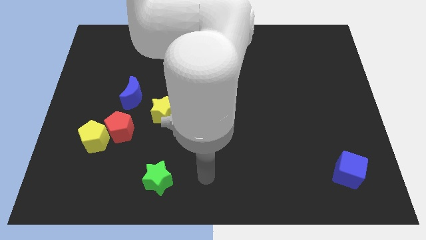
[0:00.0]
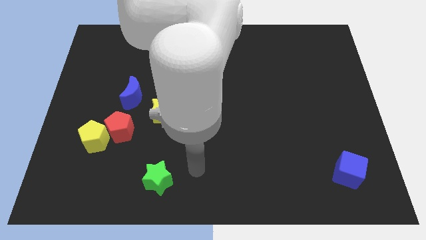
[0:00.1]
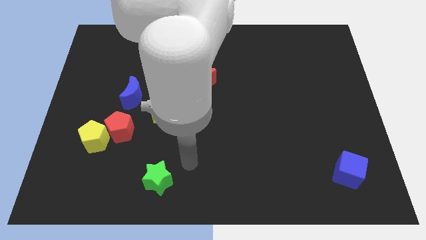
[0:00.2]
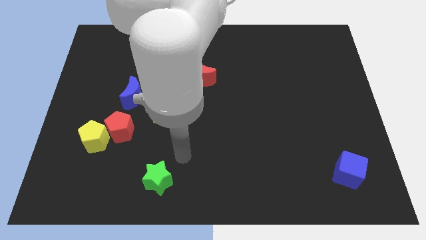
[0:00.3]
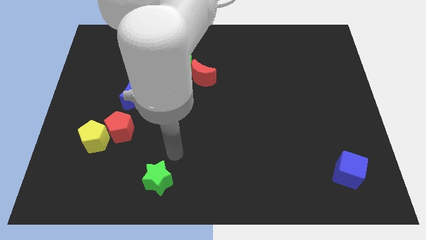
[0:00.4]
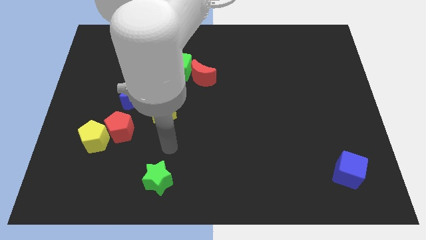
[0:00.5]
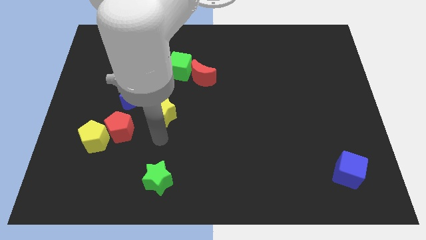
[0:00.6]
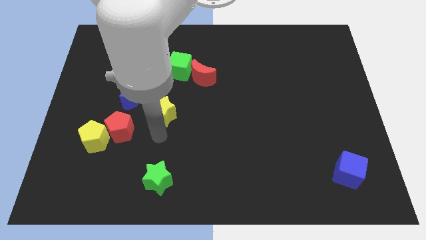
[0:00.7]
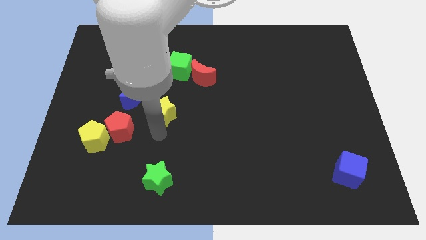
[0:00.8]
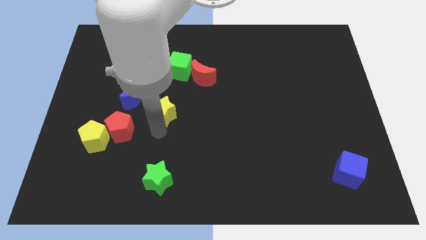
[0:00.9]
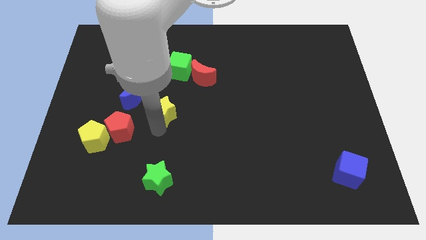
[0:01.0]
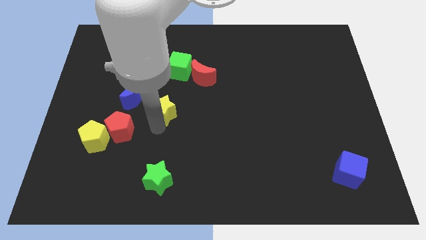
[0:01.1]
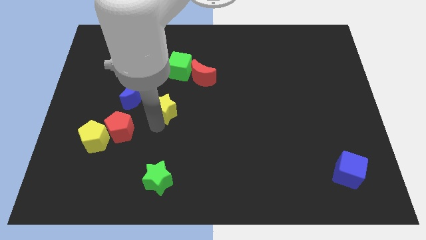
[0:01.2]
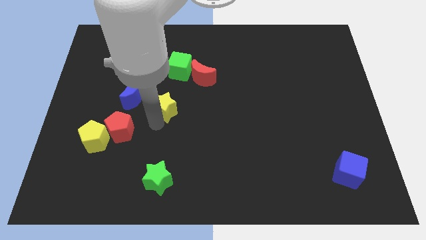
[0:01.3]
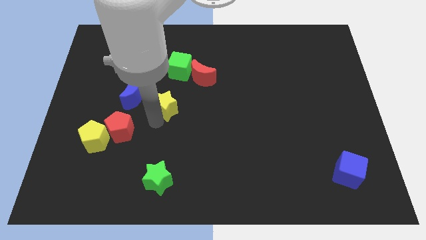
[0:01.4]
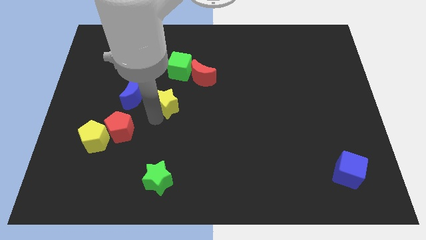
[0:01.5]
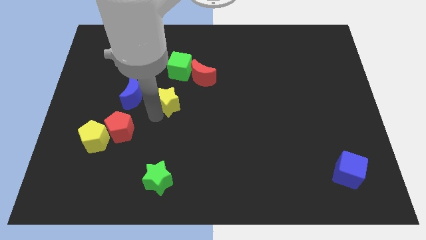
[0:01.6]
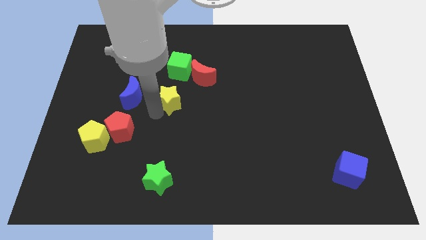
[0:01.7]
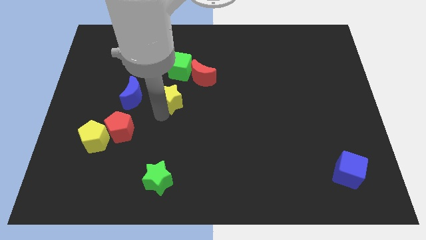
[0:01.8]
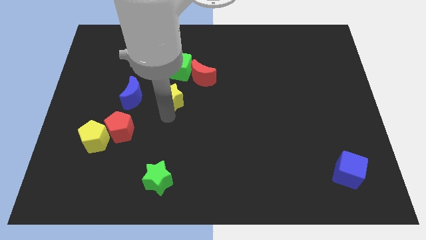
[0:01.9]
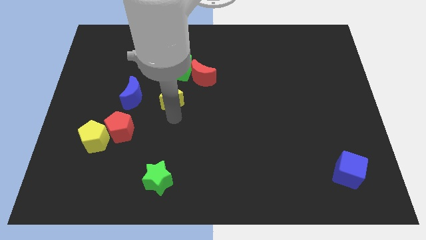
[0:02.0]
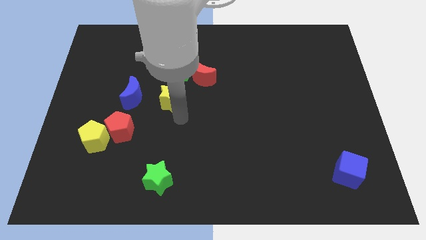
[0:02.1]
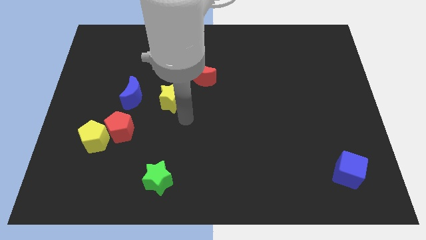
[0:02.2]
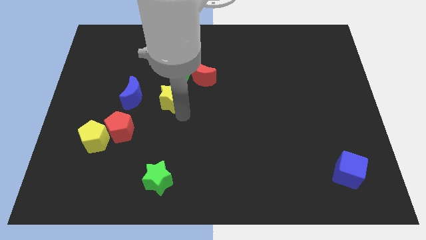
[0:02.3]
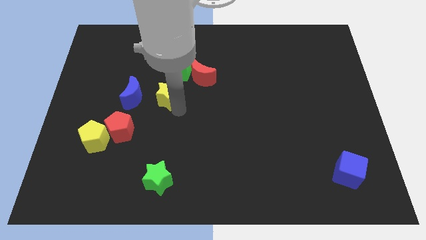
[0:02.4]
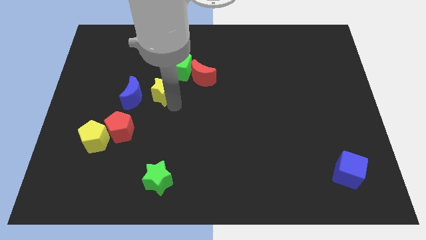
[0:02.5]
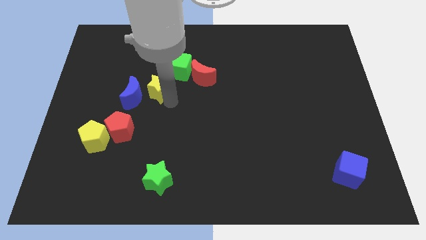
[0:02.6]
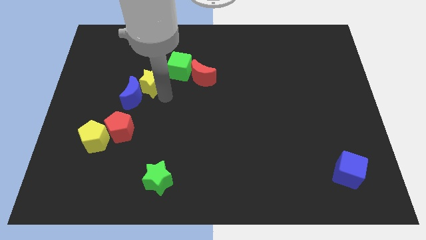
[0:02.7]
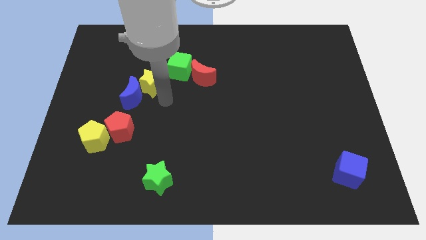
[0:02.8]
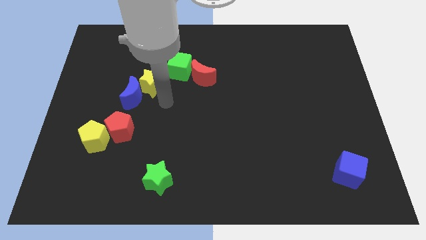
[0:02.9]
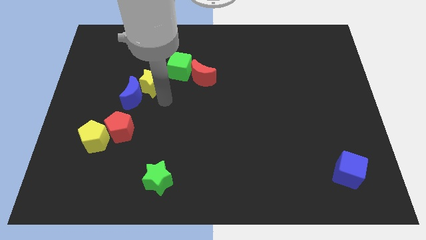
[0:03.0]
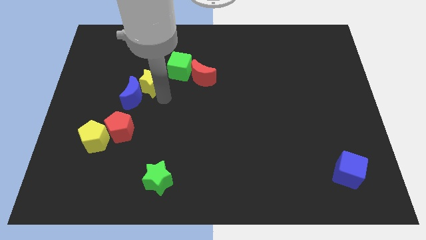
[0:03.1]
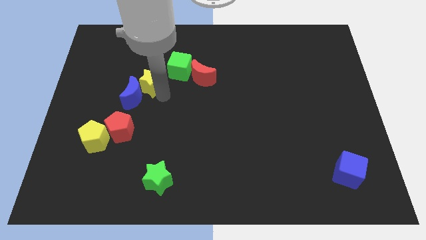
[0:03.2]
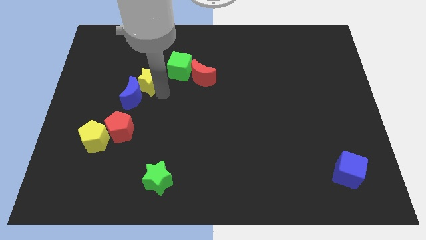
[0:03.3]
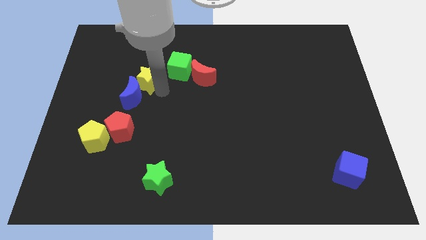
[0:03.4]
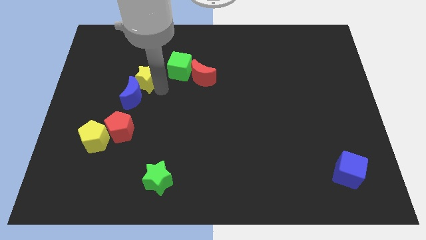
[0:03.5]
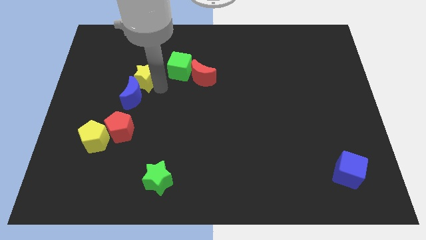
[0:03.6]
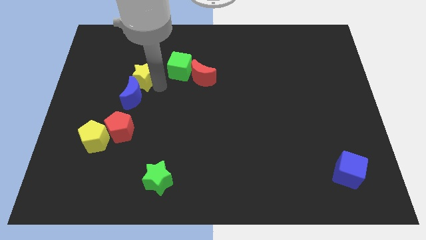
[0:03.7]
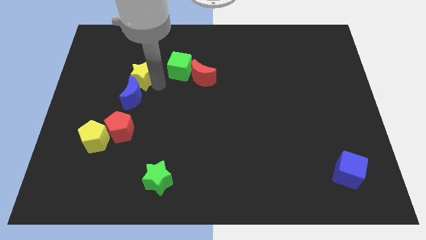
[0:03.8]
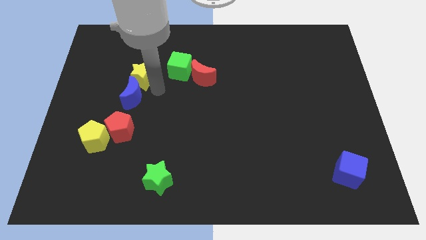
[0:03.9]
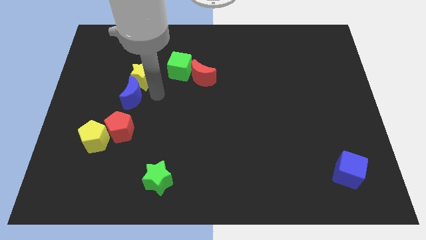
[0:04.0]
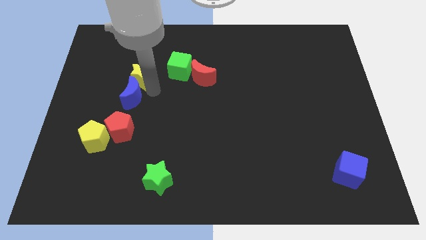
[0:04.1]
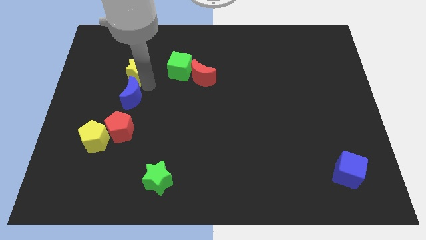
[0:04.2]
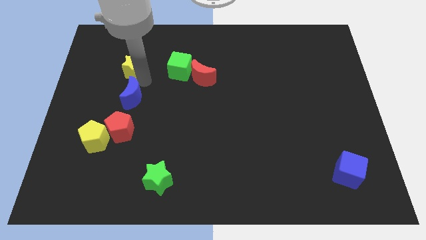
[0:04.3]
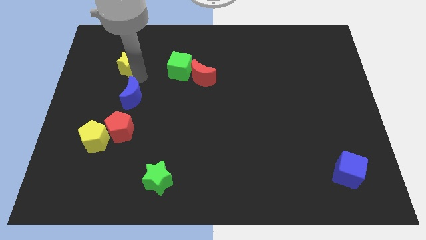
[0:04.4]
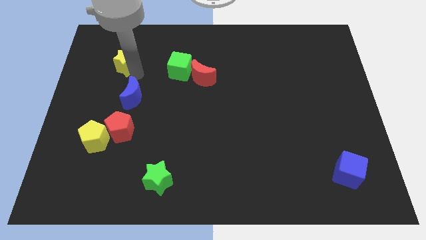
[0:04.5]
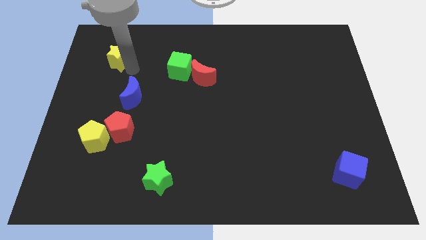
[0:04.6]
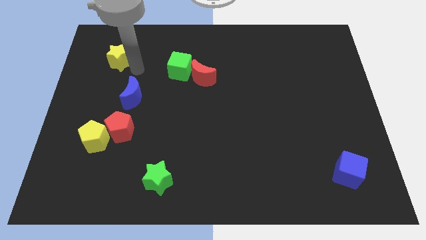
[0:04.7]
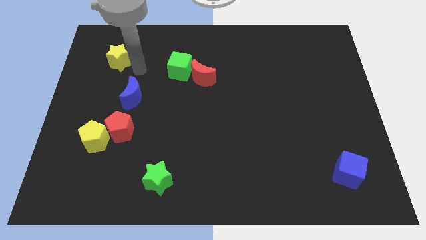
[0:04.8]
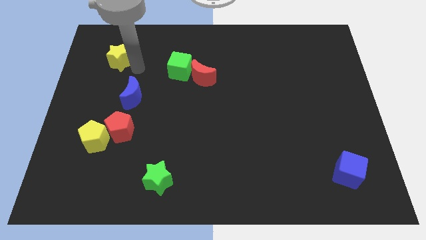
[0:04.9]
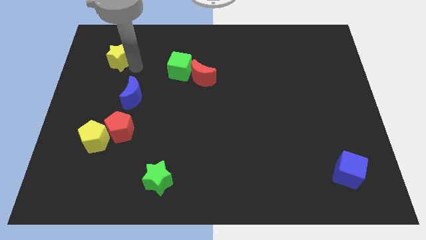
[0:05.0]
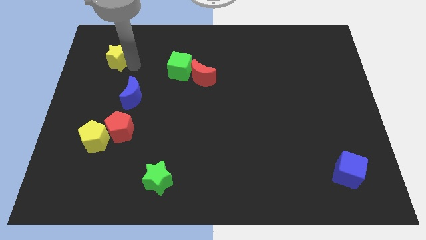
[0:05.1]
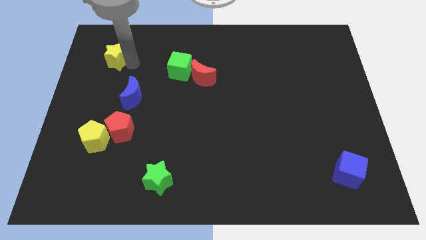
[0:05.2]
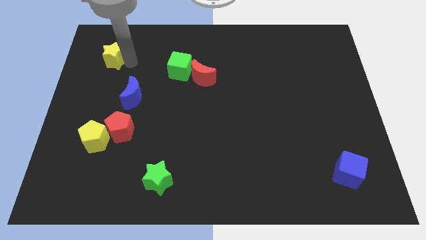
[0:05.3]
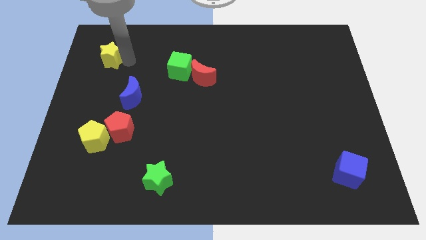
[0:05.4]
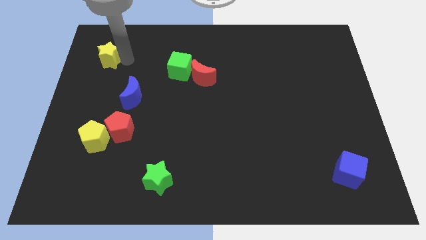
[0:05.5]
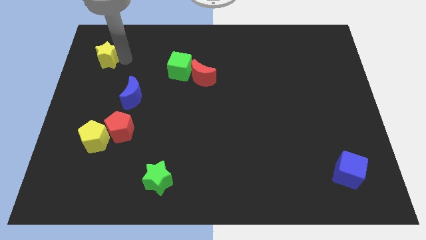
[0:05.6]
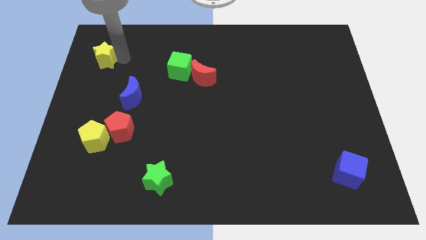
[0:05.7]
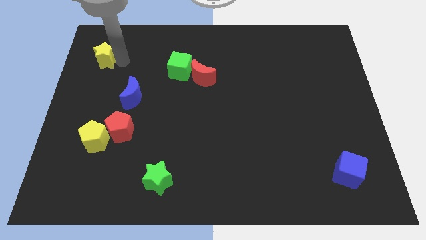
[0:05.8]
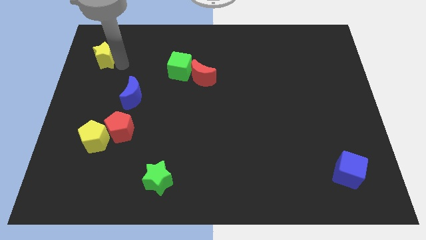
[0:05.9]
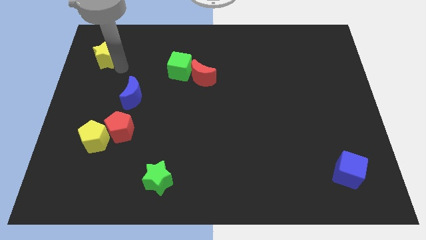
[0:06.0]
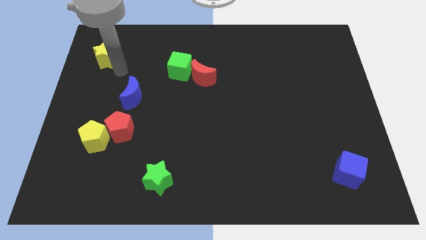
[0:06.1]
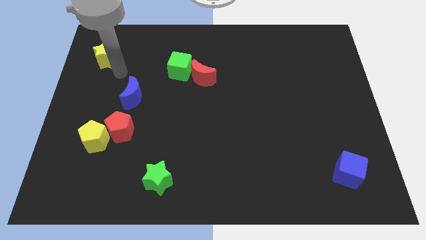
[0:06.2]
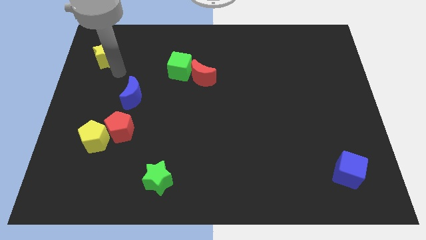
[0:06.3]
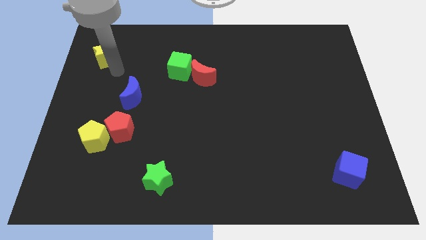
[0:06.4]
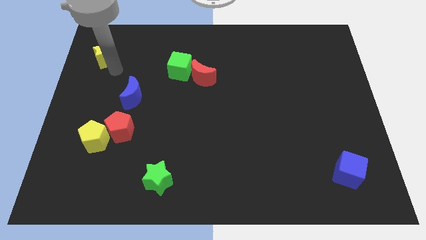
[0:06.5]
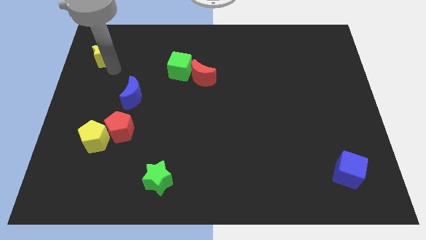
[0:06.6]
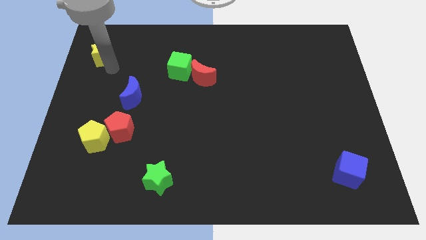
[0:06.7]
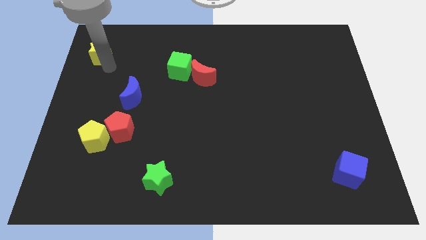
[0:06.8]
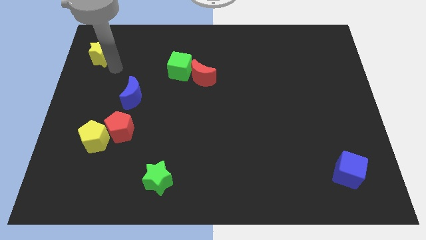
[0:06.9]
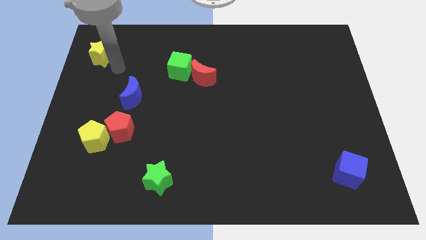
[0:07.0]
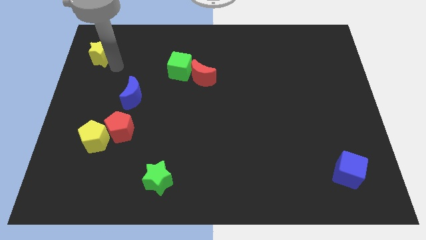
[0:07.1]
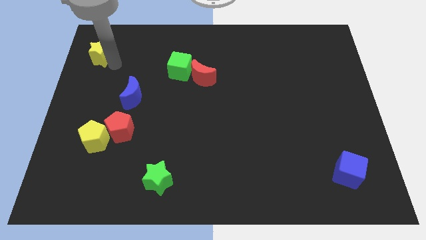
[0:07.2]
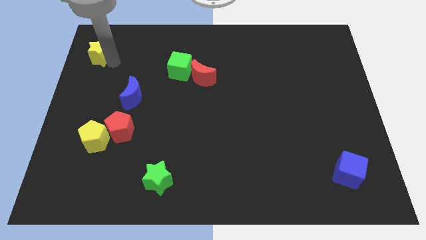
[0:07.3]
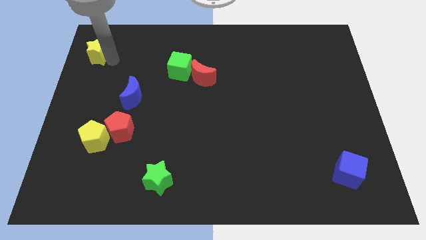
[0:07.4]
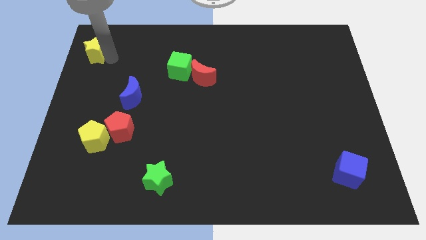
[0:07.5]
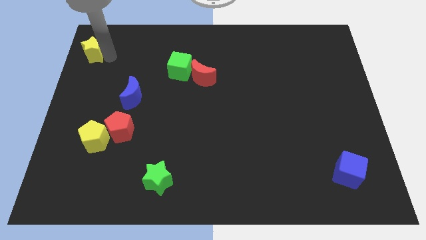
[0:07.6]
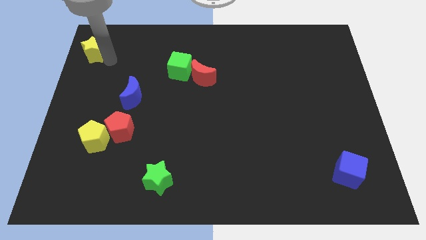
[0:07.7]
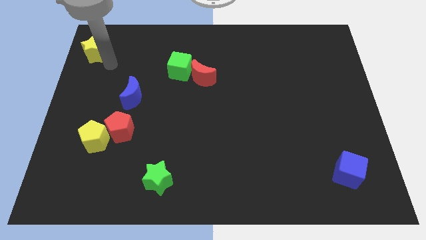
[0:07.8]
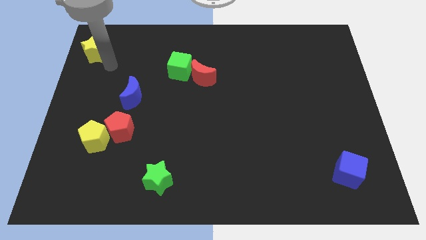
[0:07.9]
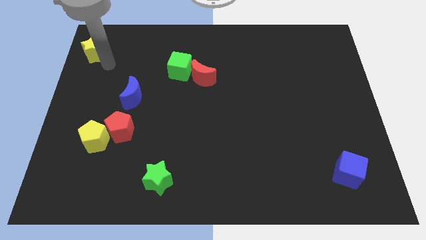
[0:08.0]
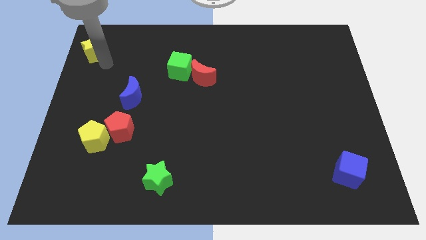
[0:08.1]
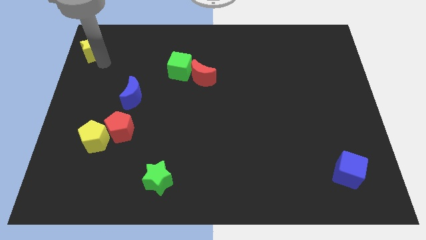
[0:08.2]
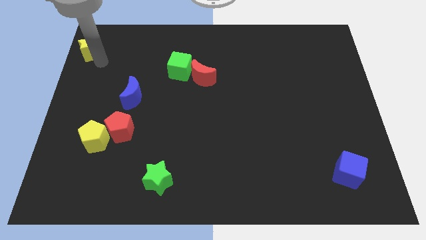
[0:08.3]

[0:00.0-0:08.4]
move the yellow star to the top left of the board
